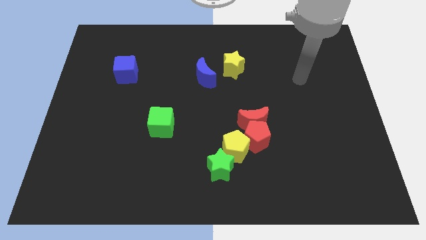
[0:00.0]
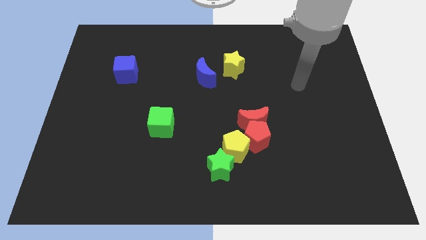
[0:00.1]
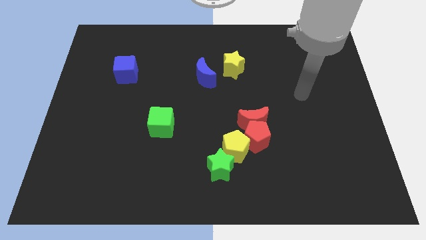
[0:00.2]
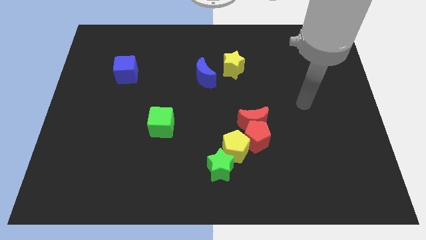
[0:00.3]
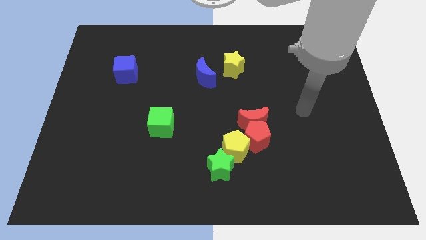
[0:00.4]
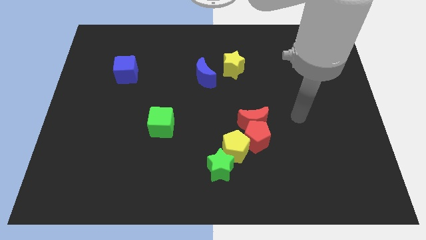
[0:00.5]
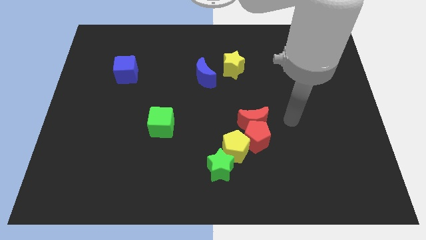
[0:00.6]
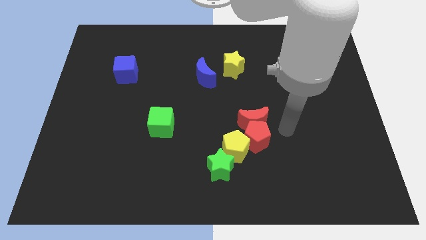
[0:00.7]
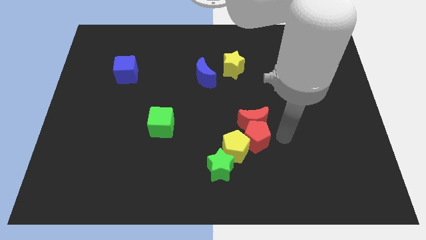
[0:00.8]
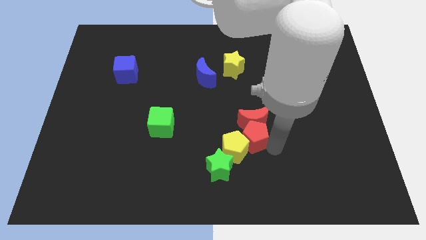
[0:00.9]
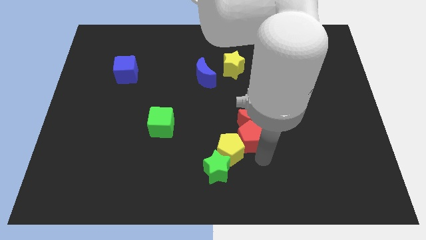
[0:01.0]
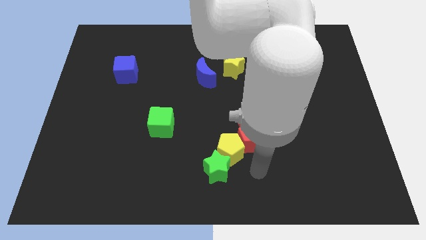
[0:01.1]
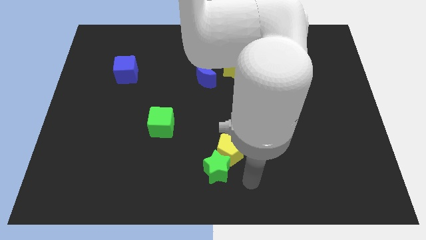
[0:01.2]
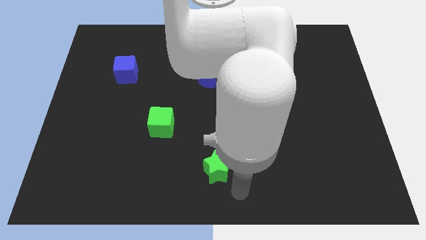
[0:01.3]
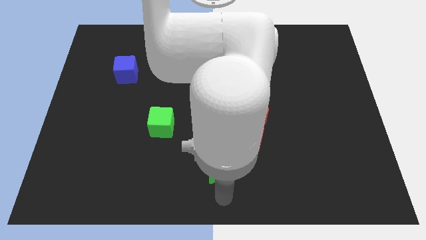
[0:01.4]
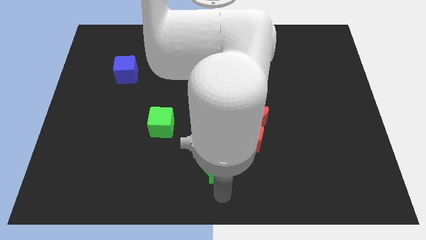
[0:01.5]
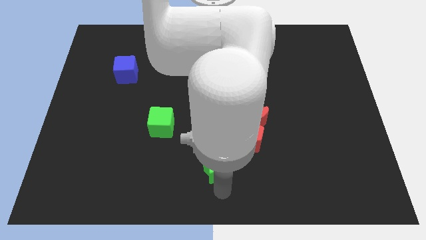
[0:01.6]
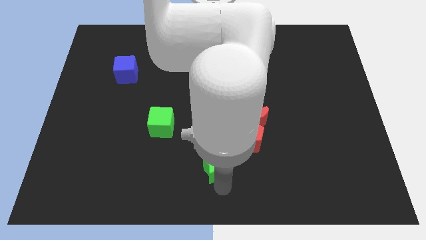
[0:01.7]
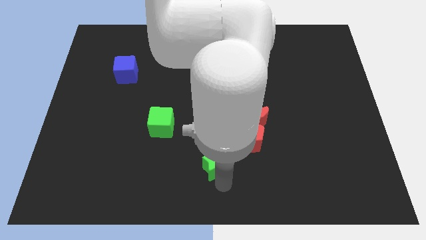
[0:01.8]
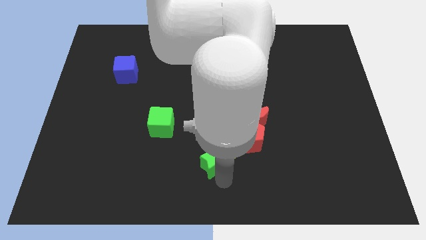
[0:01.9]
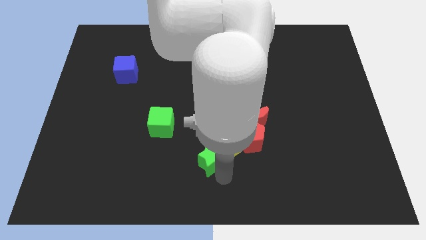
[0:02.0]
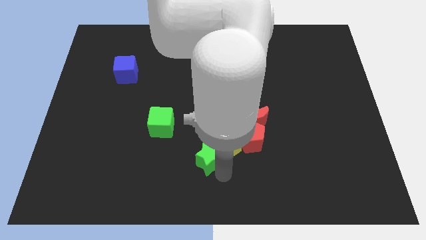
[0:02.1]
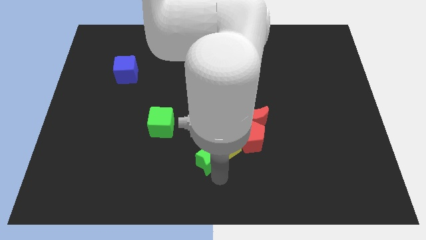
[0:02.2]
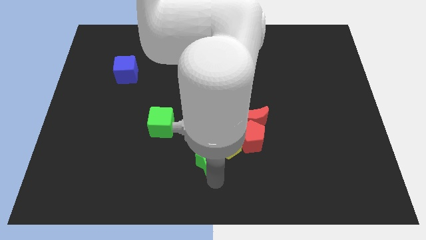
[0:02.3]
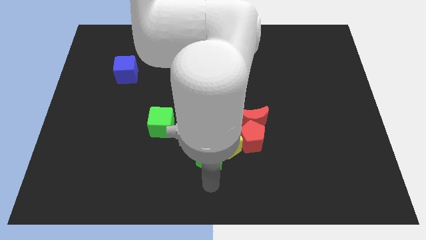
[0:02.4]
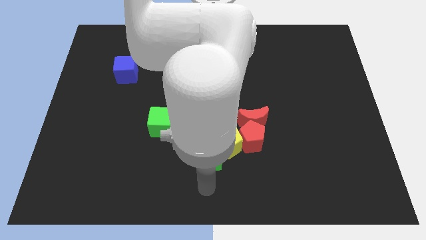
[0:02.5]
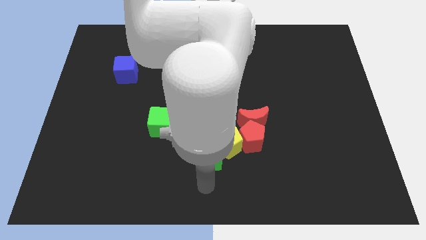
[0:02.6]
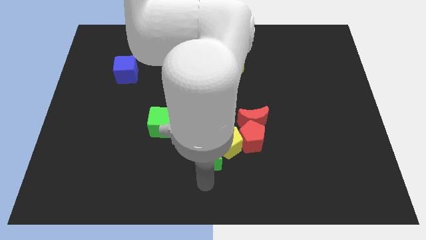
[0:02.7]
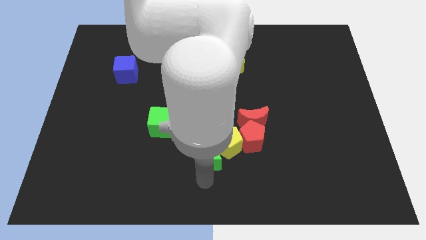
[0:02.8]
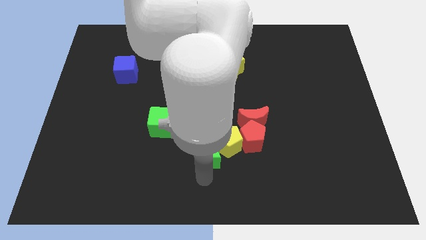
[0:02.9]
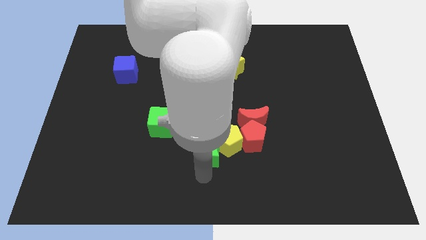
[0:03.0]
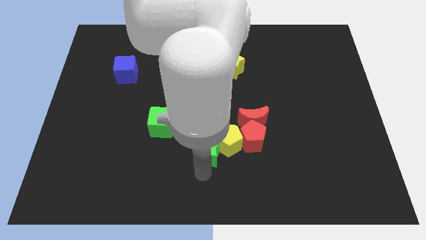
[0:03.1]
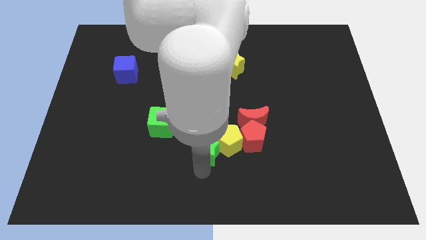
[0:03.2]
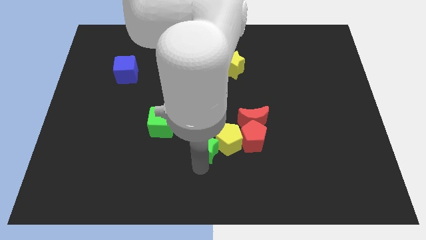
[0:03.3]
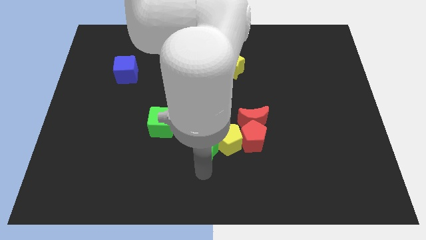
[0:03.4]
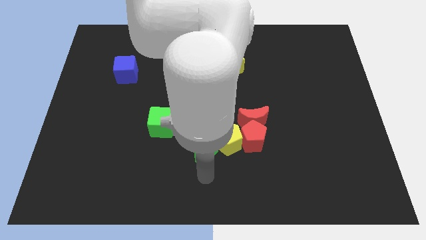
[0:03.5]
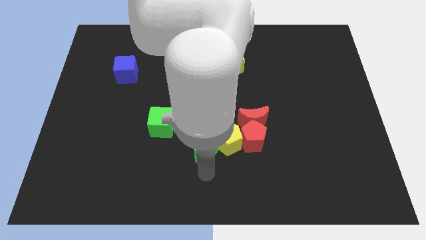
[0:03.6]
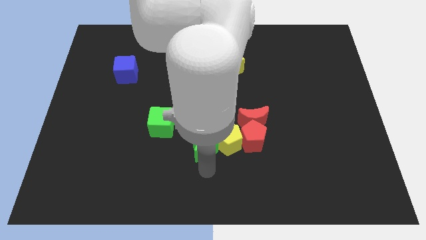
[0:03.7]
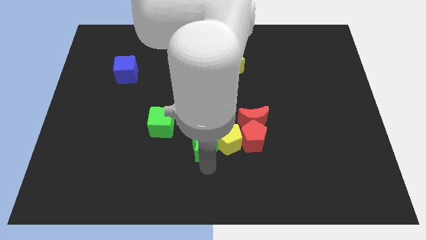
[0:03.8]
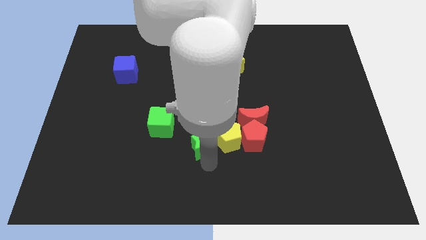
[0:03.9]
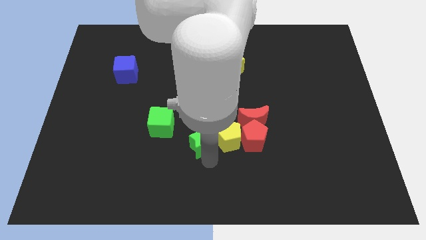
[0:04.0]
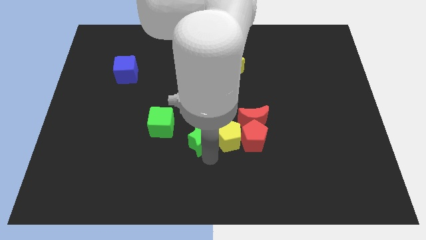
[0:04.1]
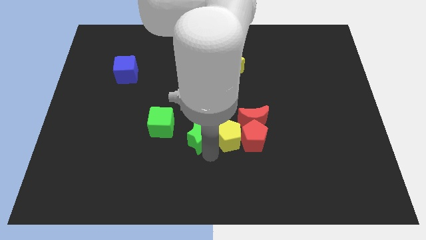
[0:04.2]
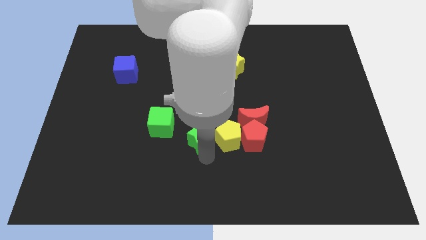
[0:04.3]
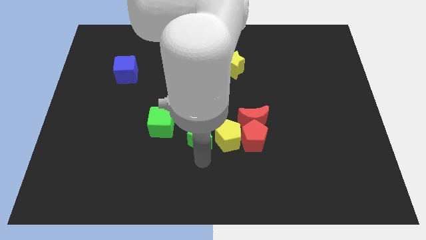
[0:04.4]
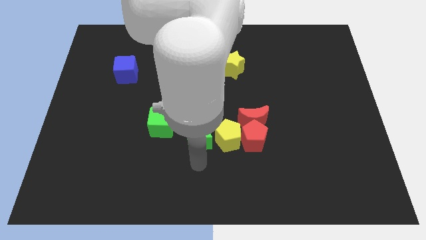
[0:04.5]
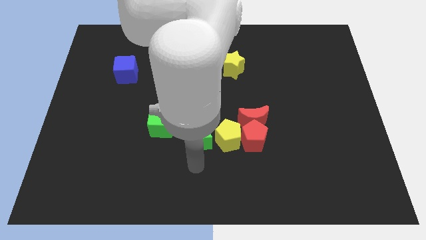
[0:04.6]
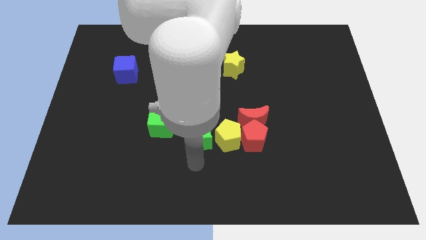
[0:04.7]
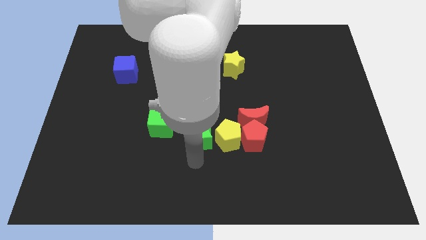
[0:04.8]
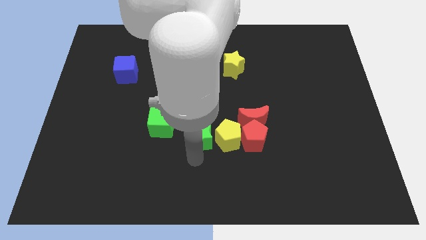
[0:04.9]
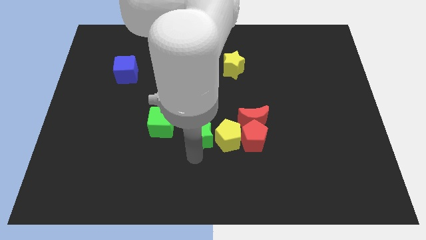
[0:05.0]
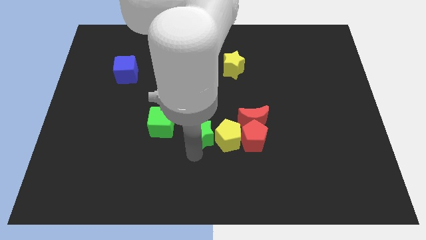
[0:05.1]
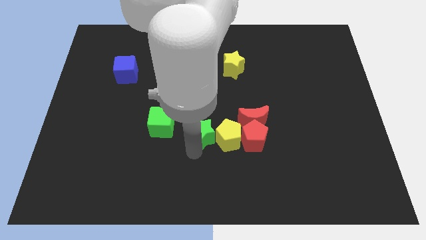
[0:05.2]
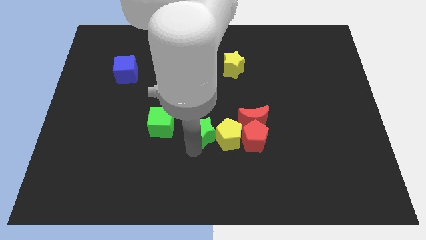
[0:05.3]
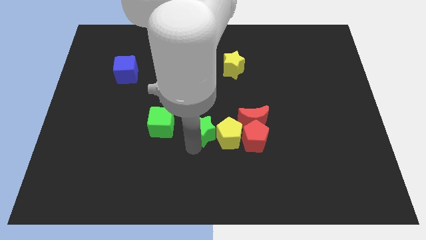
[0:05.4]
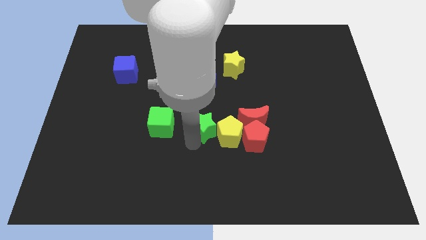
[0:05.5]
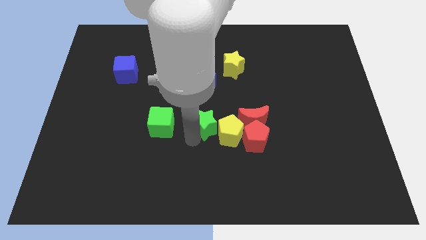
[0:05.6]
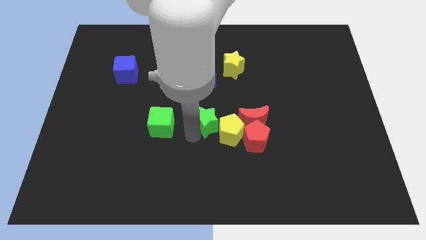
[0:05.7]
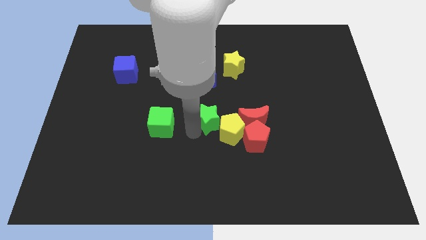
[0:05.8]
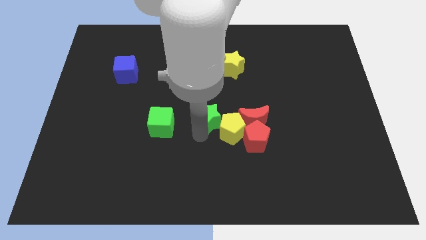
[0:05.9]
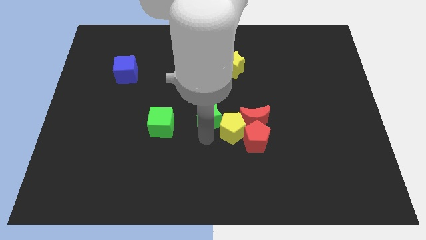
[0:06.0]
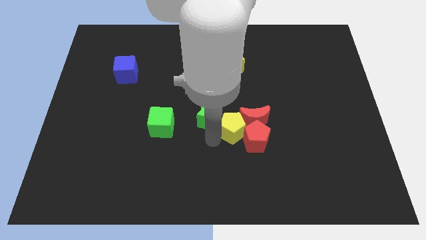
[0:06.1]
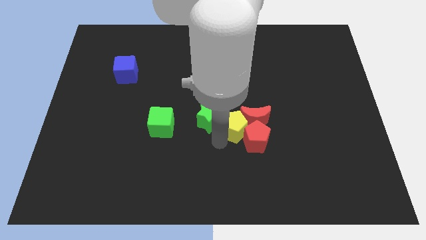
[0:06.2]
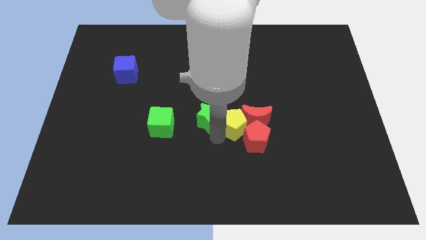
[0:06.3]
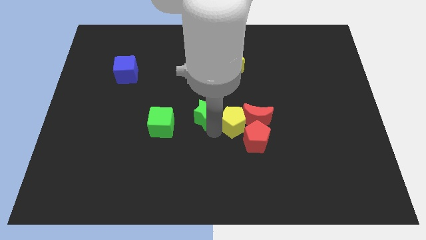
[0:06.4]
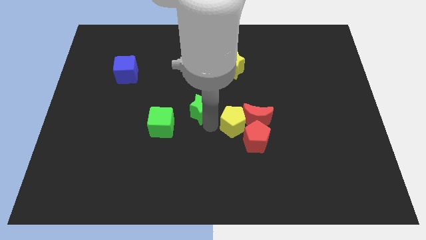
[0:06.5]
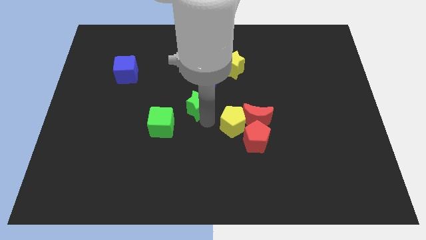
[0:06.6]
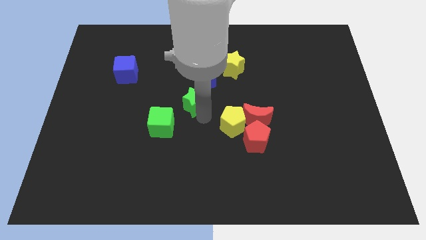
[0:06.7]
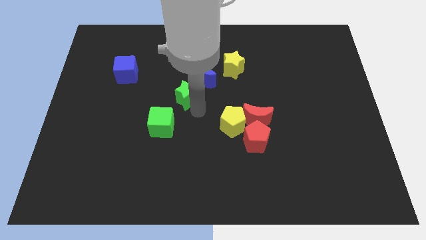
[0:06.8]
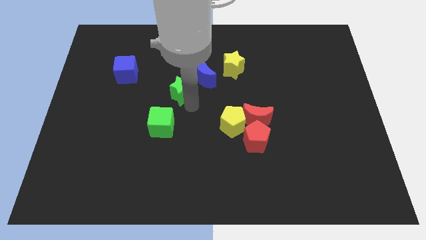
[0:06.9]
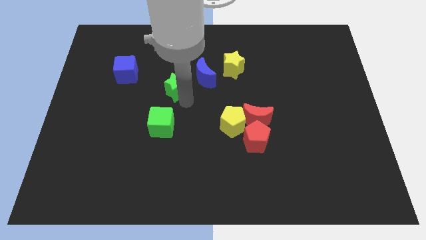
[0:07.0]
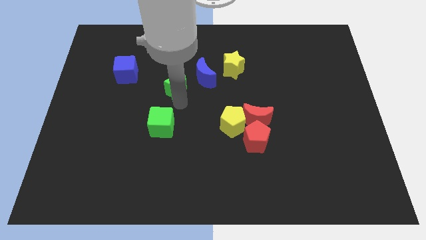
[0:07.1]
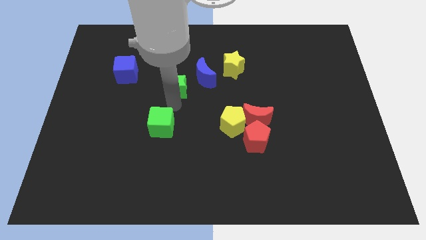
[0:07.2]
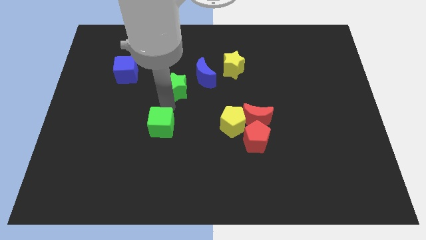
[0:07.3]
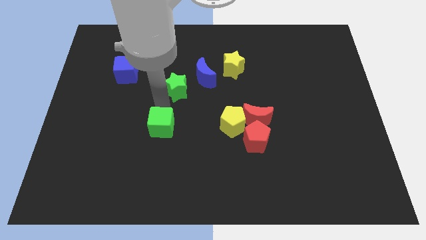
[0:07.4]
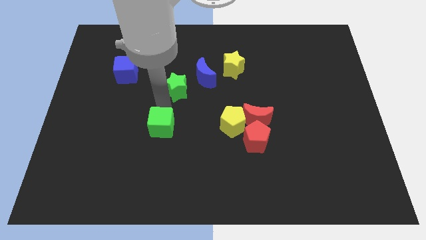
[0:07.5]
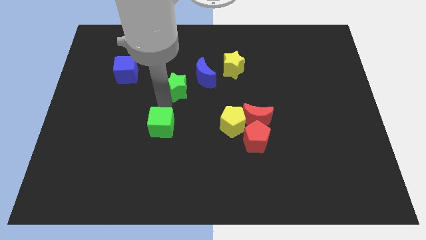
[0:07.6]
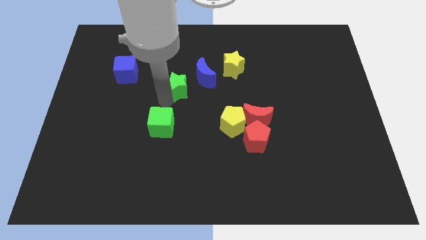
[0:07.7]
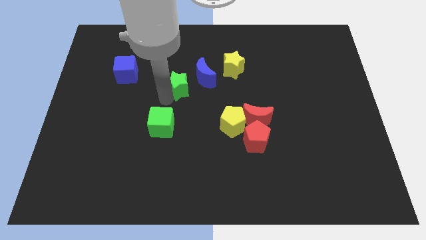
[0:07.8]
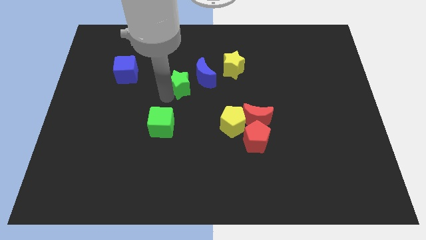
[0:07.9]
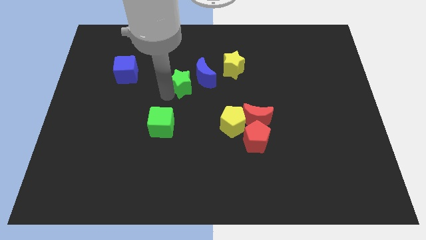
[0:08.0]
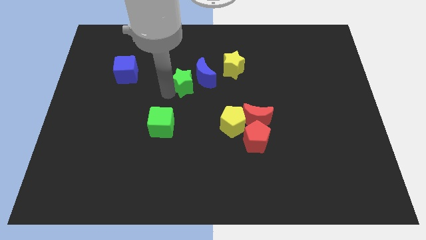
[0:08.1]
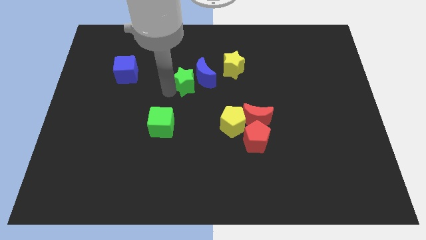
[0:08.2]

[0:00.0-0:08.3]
move the green star up
